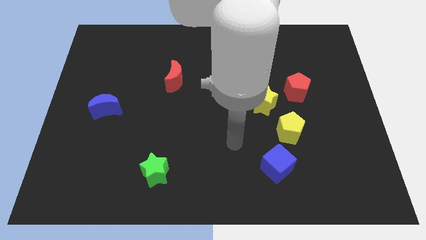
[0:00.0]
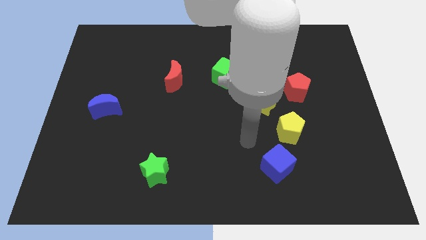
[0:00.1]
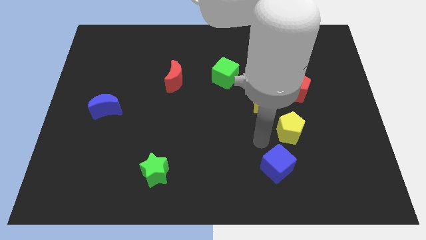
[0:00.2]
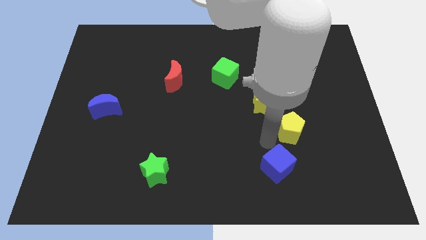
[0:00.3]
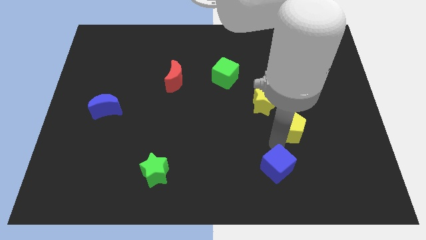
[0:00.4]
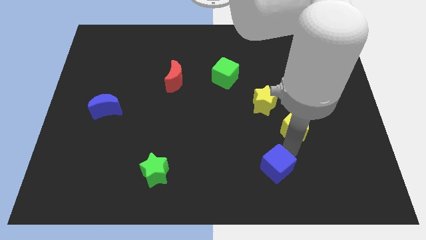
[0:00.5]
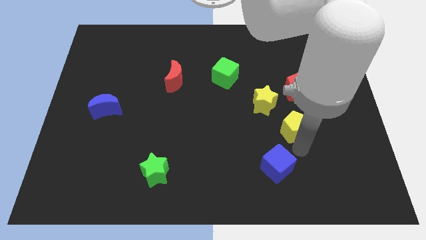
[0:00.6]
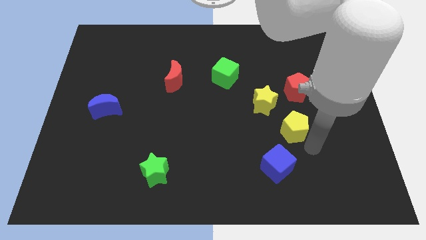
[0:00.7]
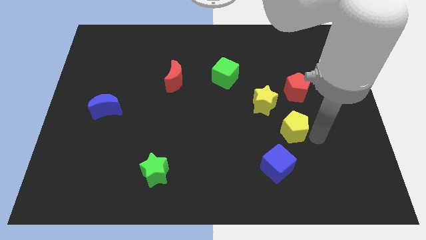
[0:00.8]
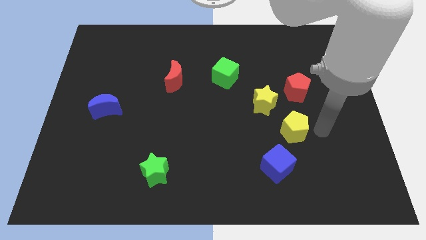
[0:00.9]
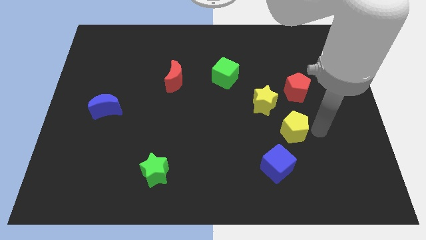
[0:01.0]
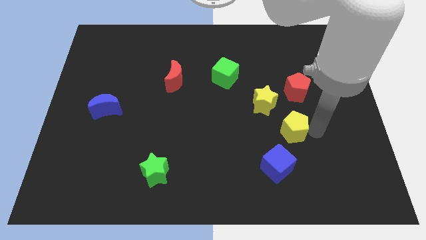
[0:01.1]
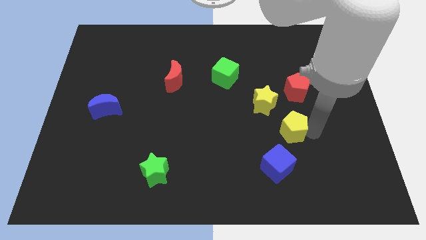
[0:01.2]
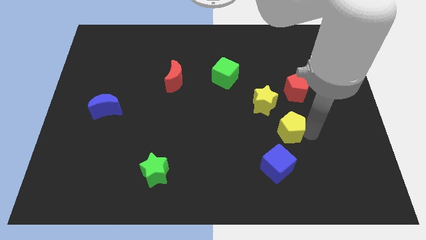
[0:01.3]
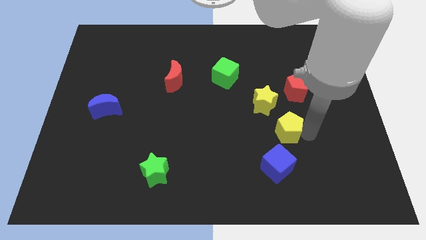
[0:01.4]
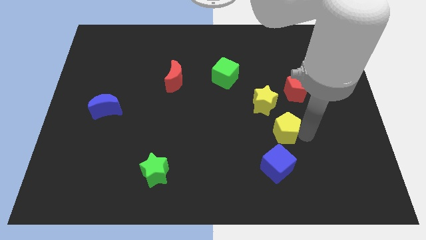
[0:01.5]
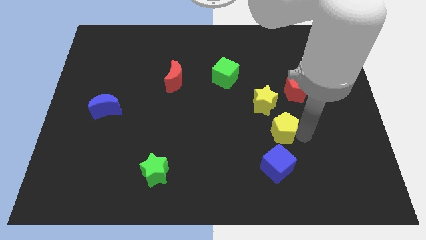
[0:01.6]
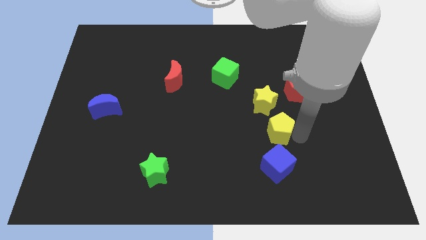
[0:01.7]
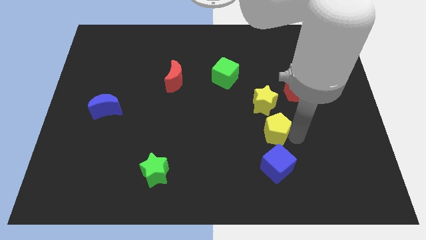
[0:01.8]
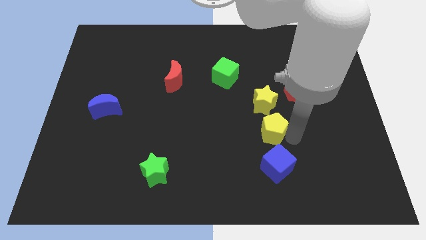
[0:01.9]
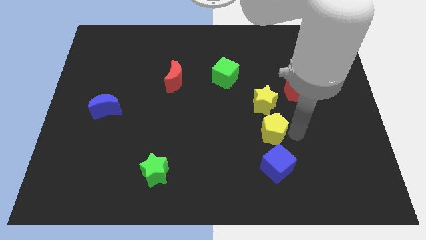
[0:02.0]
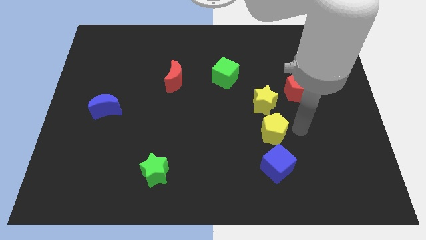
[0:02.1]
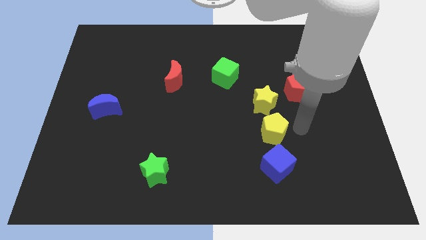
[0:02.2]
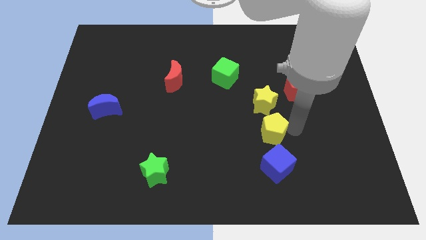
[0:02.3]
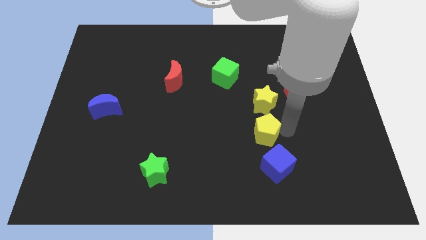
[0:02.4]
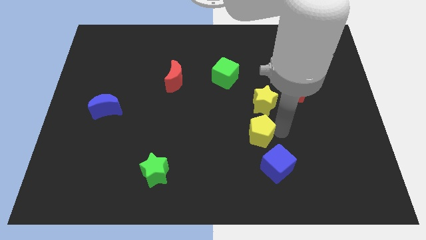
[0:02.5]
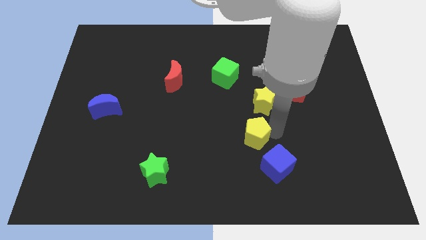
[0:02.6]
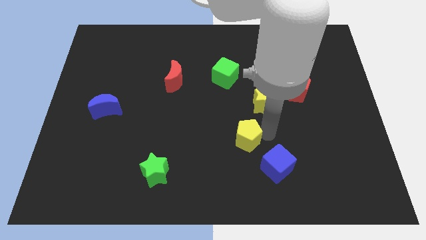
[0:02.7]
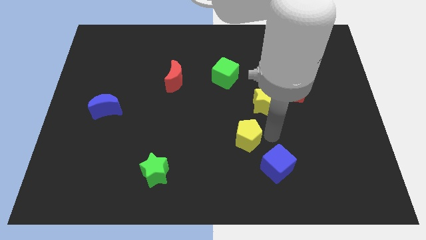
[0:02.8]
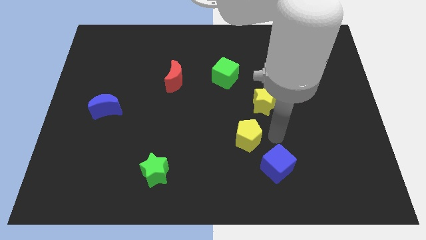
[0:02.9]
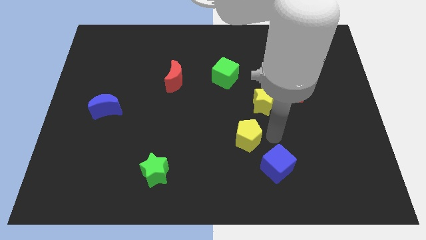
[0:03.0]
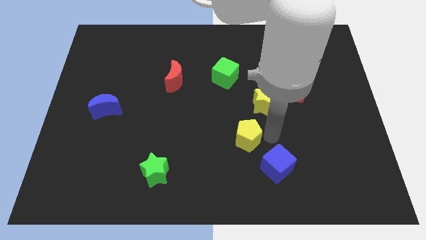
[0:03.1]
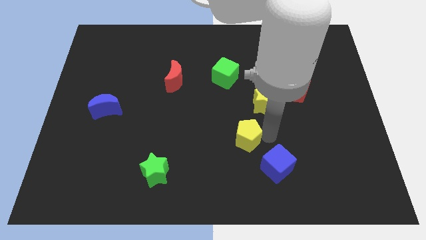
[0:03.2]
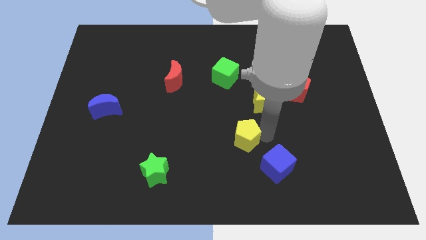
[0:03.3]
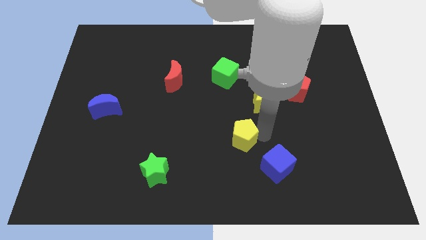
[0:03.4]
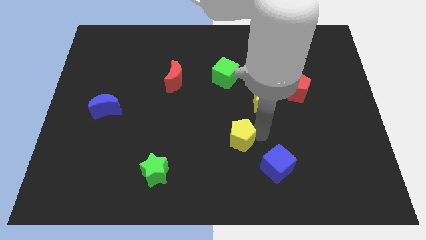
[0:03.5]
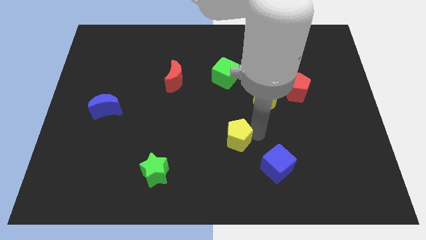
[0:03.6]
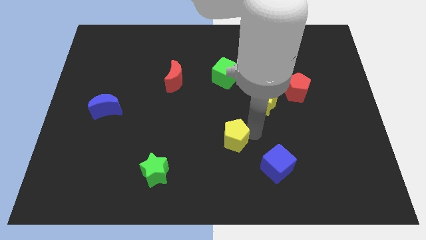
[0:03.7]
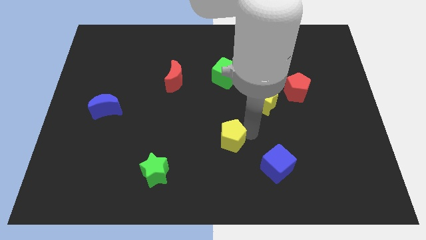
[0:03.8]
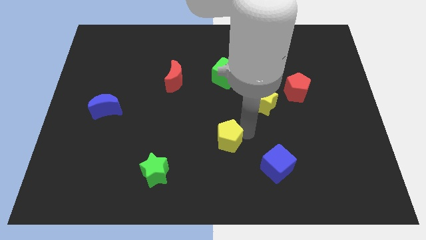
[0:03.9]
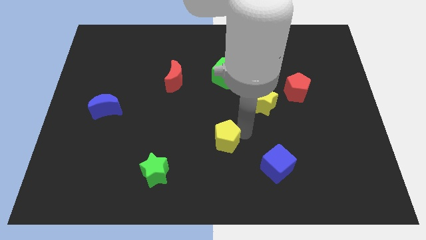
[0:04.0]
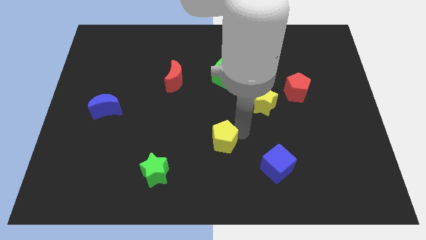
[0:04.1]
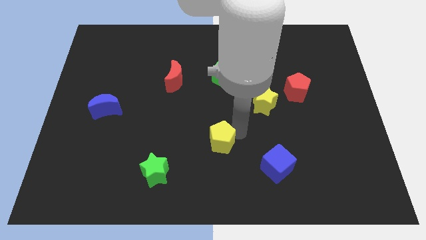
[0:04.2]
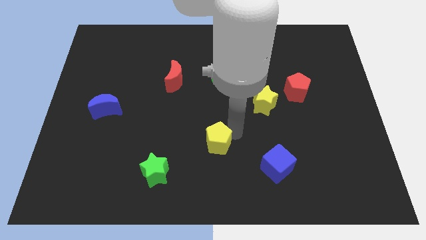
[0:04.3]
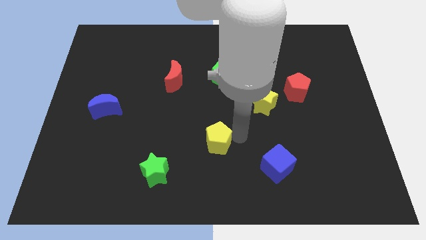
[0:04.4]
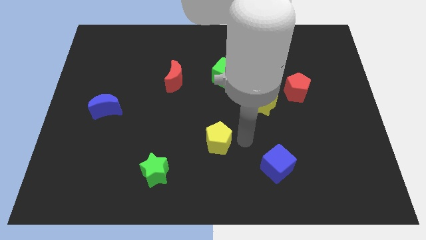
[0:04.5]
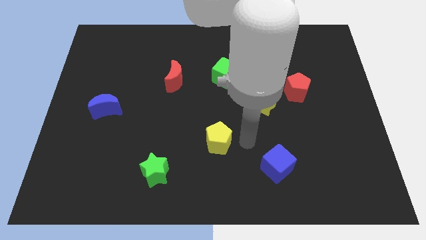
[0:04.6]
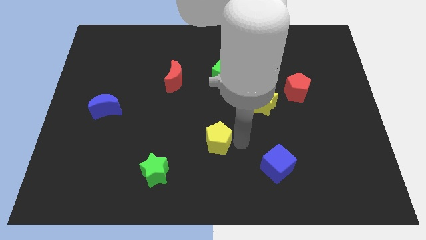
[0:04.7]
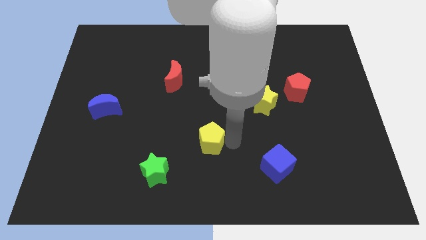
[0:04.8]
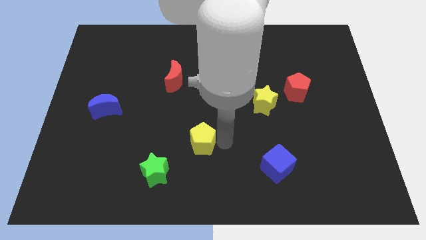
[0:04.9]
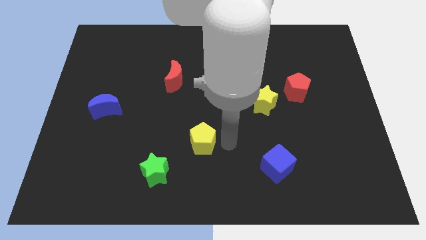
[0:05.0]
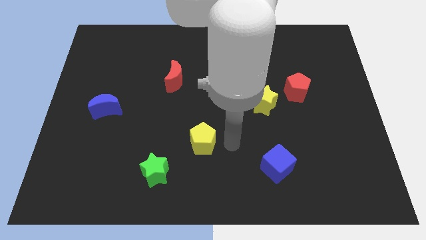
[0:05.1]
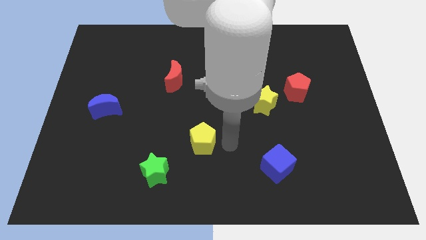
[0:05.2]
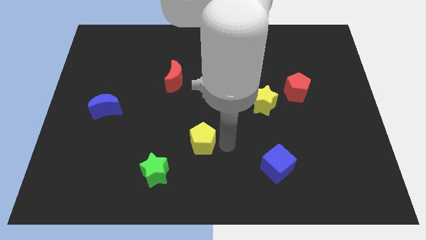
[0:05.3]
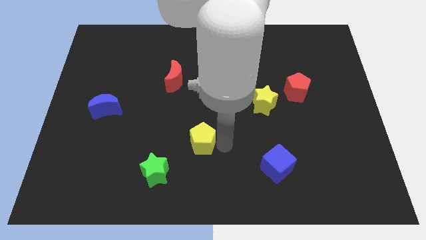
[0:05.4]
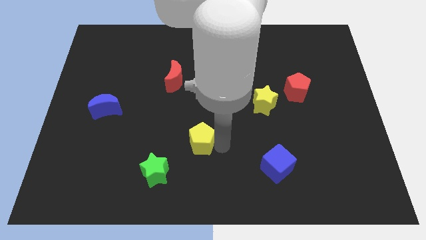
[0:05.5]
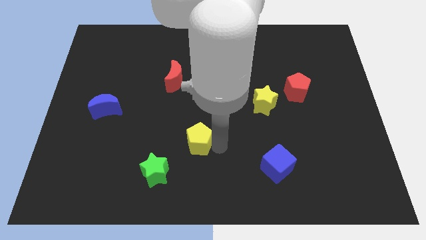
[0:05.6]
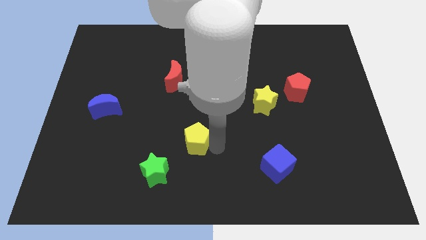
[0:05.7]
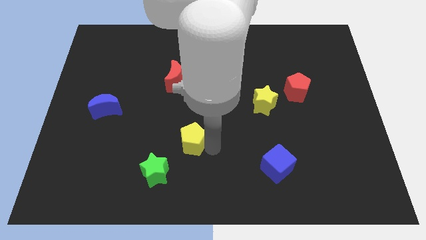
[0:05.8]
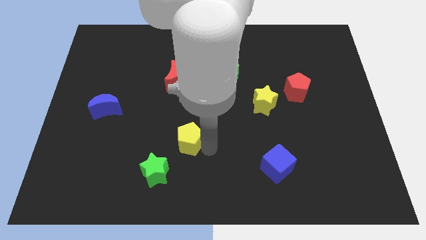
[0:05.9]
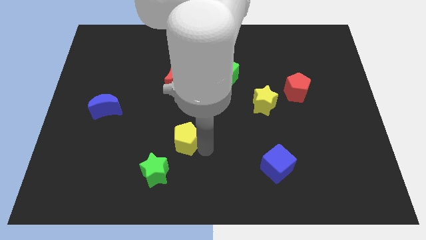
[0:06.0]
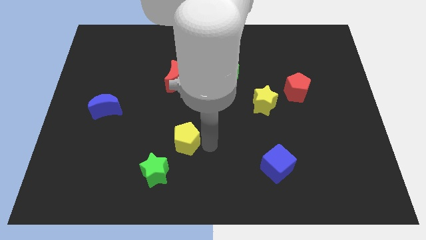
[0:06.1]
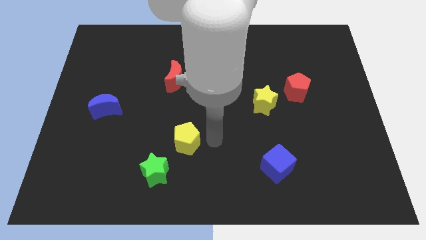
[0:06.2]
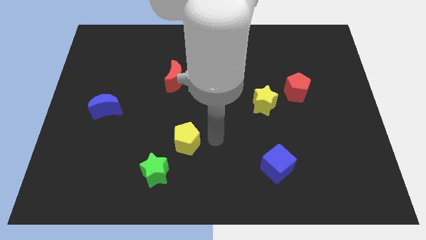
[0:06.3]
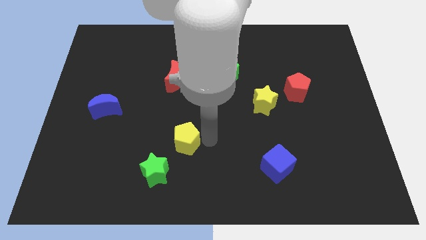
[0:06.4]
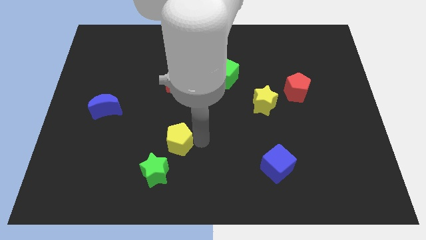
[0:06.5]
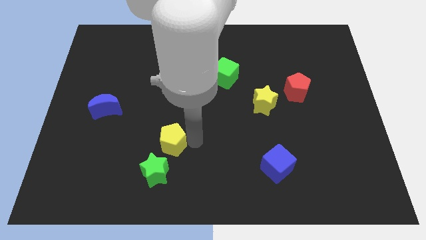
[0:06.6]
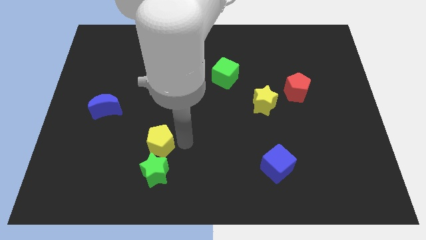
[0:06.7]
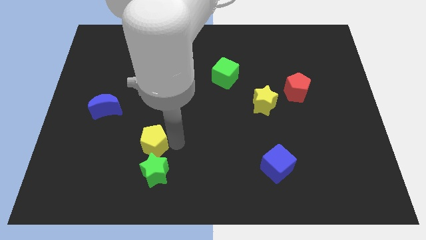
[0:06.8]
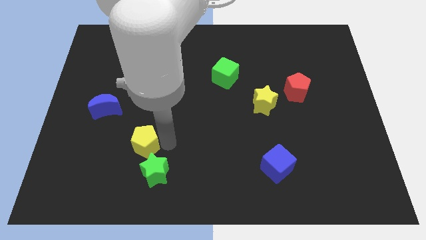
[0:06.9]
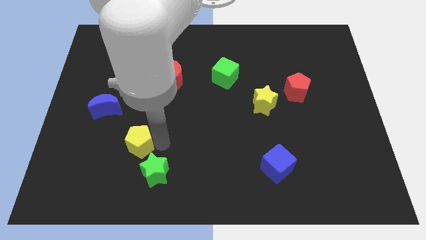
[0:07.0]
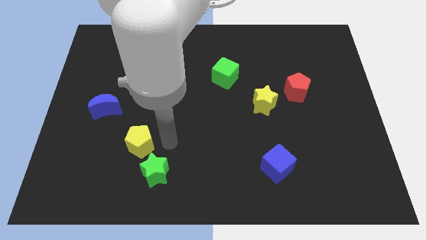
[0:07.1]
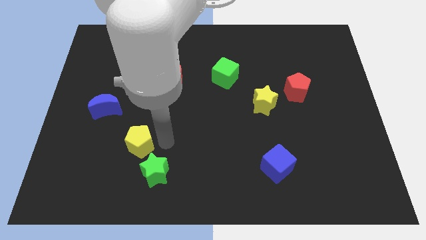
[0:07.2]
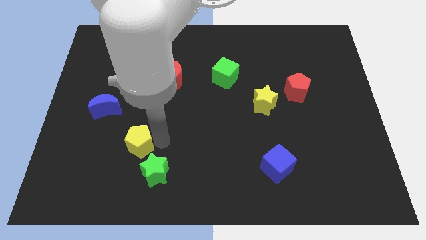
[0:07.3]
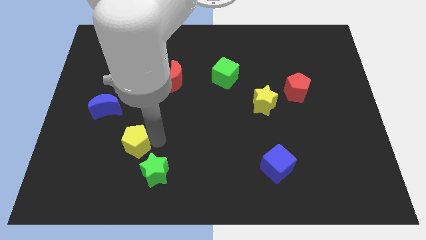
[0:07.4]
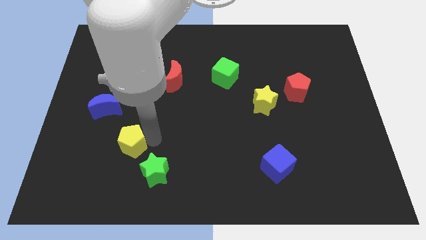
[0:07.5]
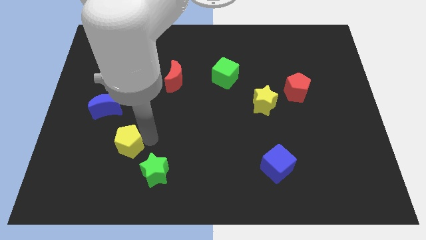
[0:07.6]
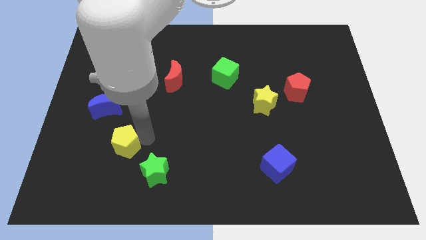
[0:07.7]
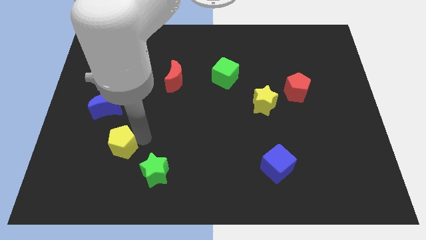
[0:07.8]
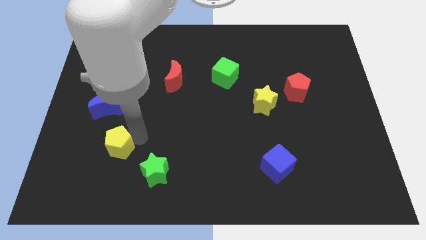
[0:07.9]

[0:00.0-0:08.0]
push the yellow pentagon to the bottom side of the blue moon

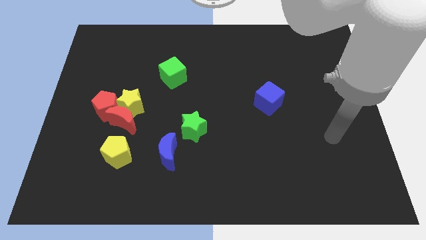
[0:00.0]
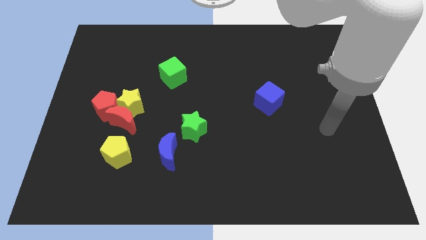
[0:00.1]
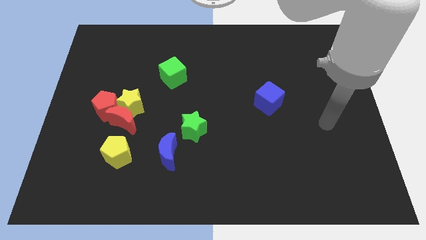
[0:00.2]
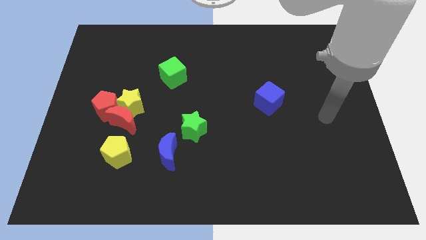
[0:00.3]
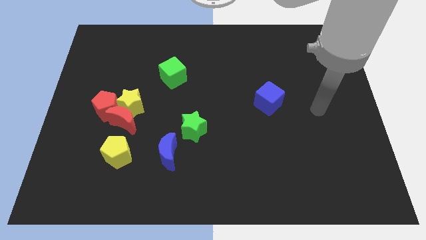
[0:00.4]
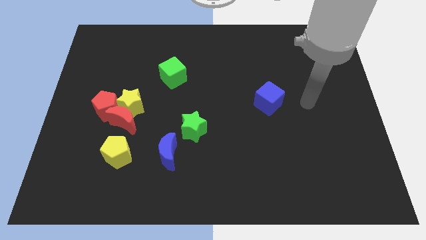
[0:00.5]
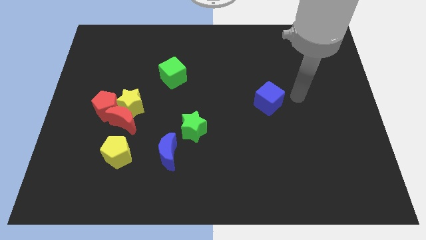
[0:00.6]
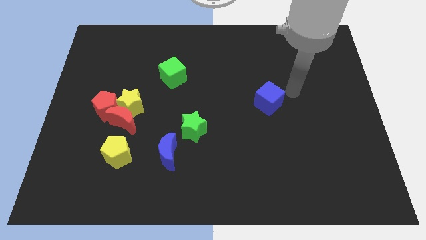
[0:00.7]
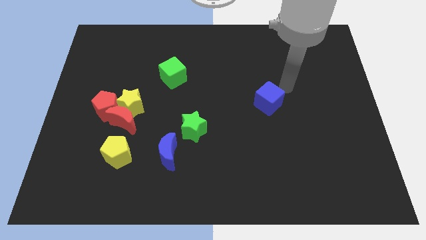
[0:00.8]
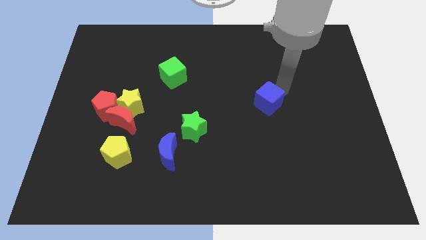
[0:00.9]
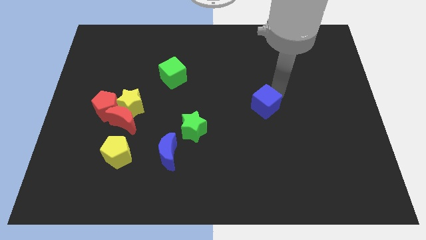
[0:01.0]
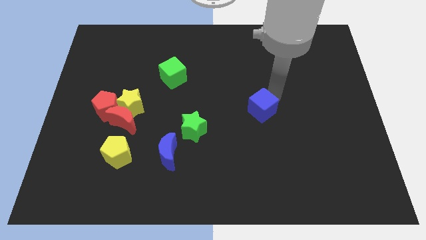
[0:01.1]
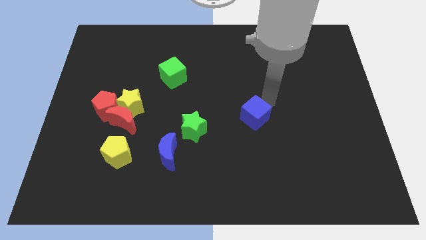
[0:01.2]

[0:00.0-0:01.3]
move the blue cube to the right side of the green star
